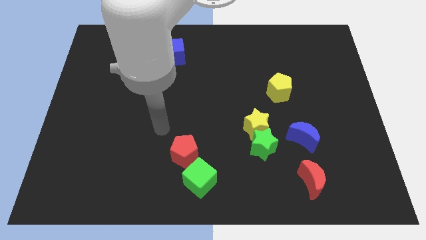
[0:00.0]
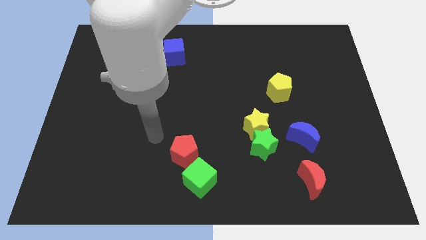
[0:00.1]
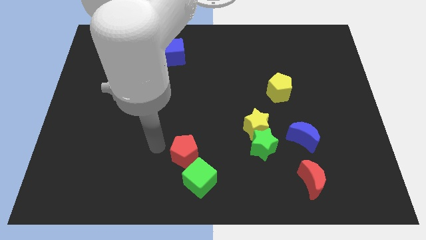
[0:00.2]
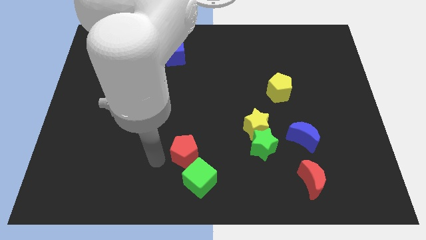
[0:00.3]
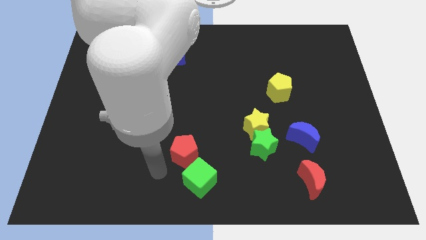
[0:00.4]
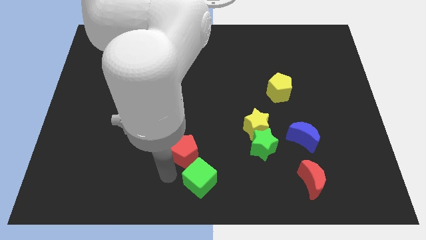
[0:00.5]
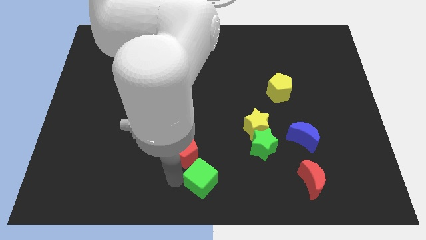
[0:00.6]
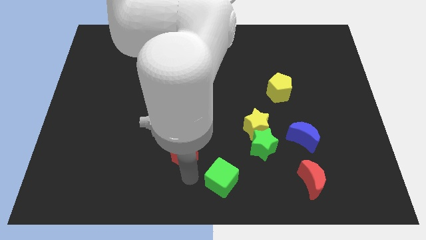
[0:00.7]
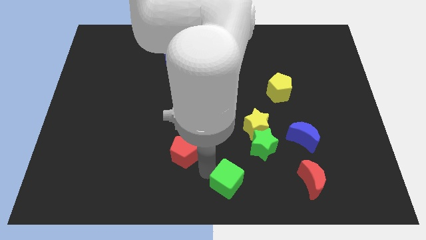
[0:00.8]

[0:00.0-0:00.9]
pull the red pentagon apart from the green cube

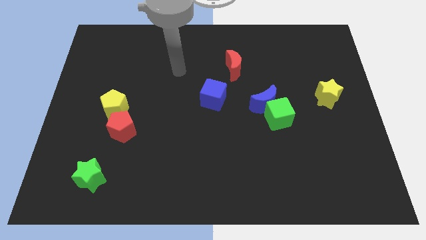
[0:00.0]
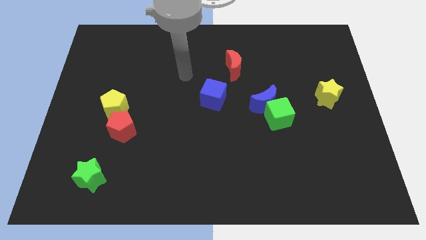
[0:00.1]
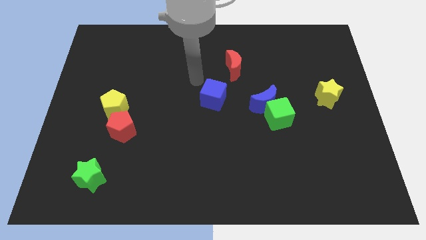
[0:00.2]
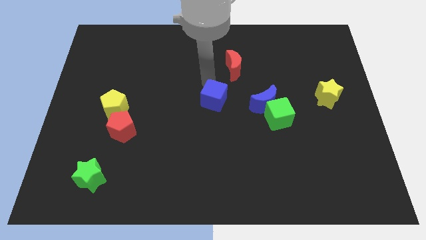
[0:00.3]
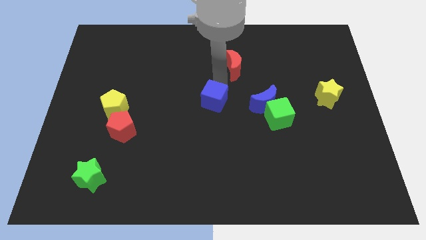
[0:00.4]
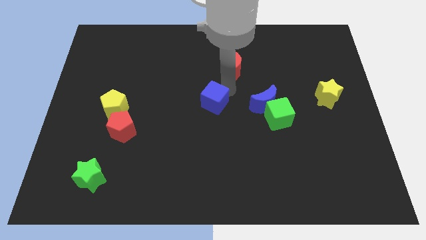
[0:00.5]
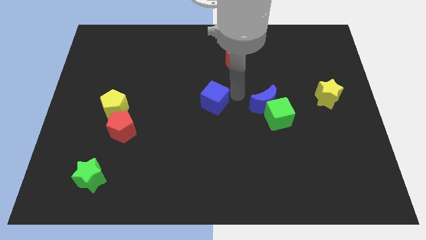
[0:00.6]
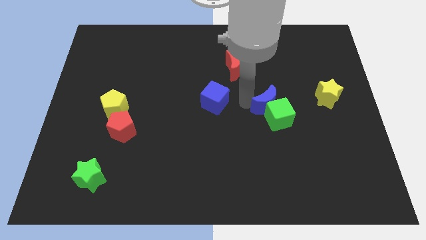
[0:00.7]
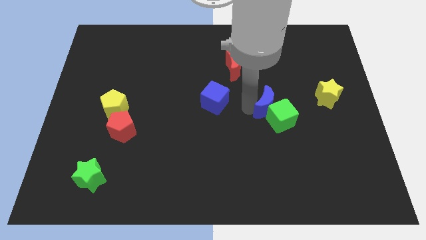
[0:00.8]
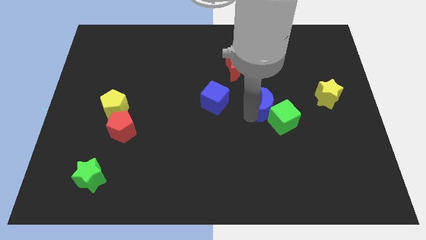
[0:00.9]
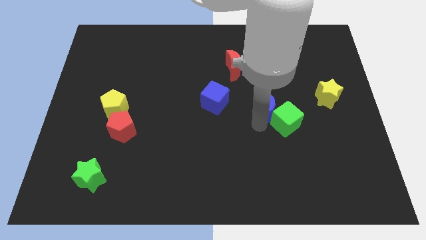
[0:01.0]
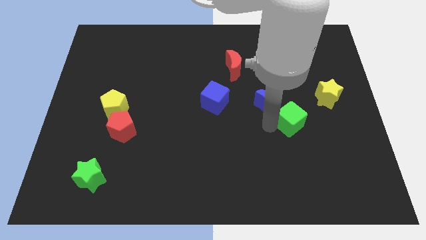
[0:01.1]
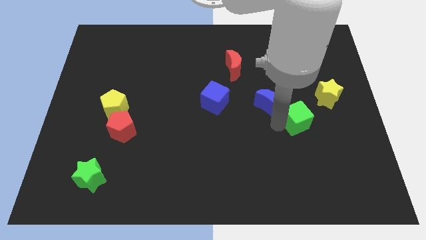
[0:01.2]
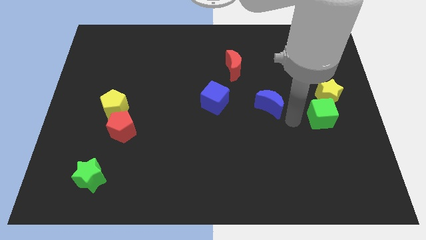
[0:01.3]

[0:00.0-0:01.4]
pull the blue moon apart from the green cube

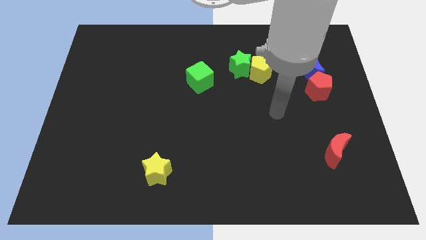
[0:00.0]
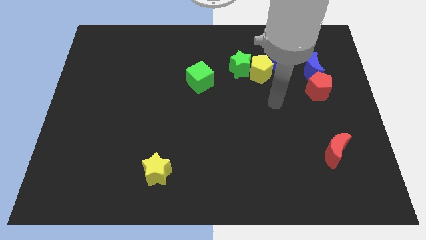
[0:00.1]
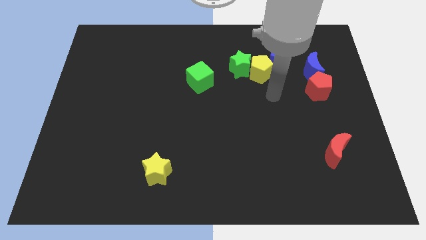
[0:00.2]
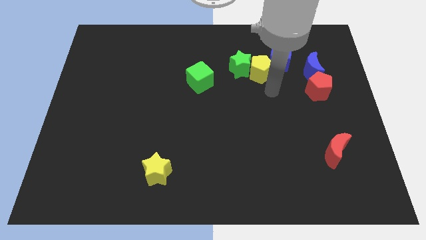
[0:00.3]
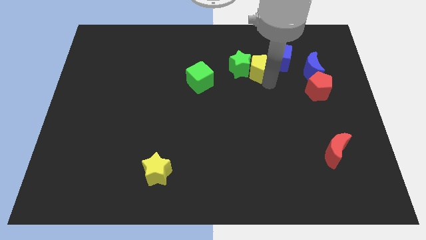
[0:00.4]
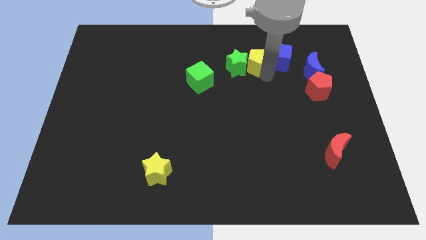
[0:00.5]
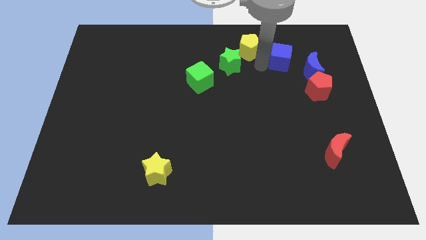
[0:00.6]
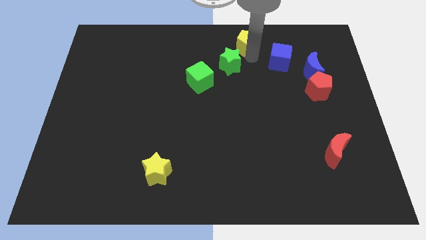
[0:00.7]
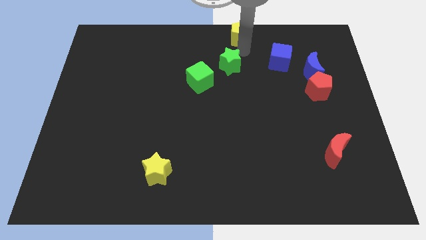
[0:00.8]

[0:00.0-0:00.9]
pull the green star apart from the yellow pentagon

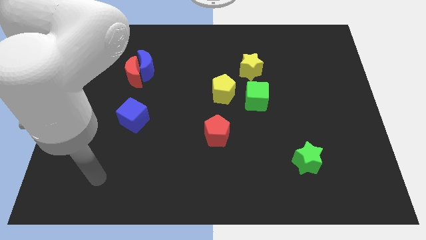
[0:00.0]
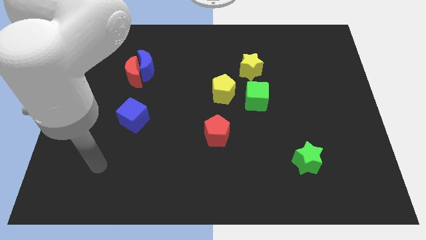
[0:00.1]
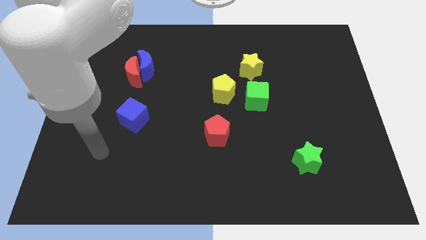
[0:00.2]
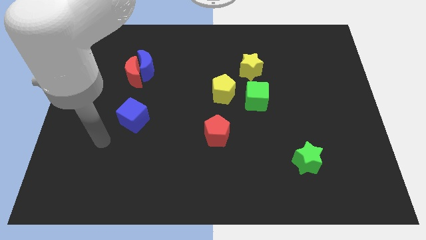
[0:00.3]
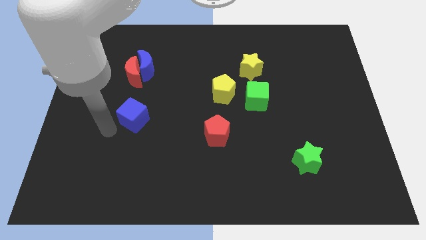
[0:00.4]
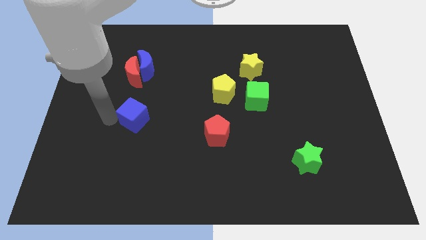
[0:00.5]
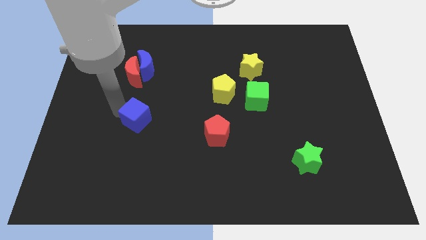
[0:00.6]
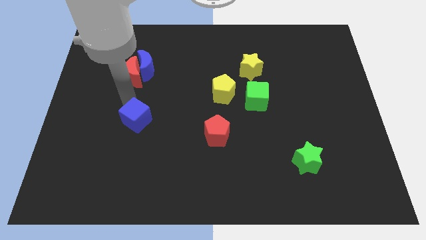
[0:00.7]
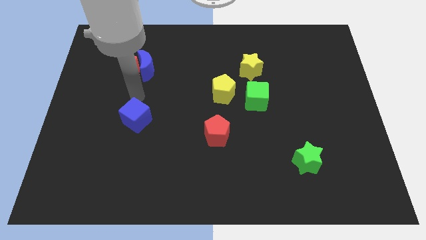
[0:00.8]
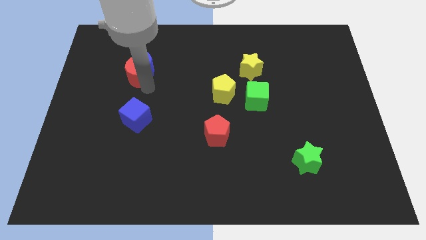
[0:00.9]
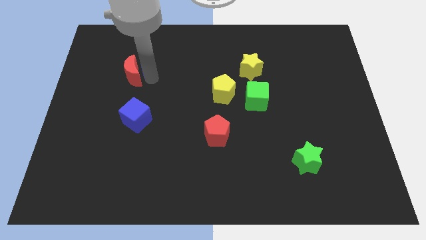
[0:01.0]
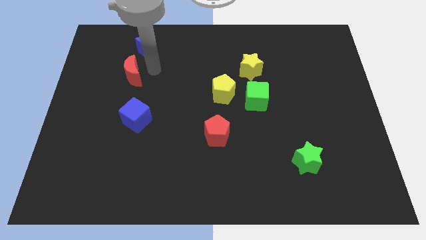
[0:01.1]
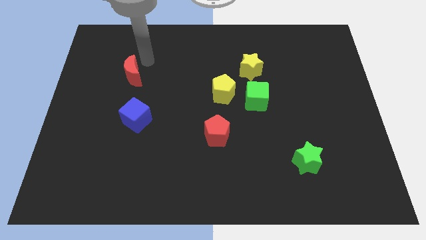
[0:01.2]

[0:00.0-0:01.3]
separate the red moon from the blue moon

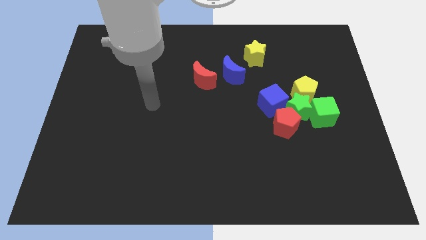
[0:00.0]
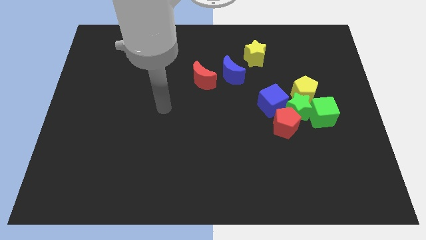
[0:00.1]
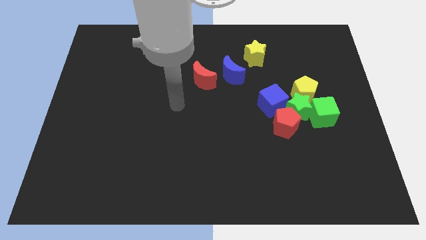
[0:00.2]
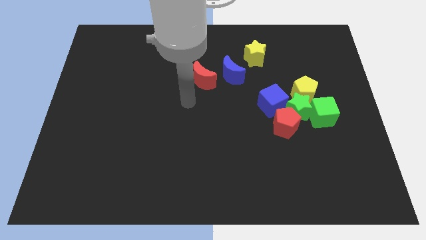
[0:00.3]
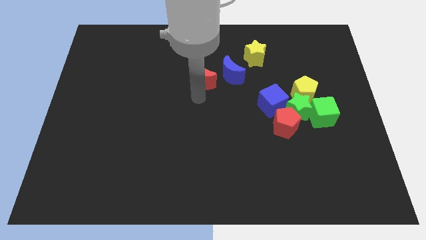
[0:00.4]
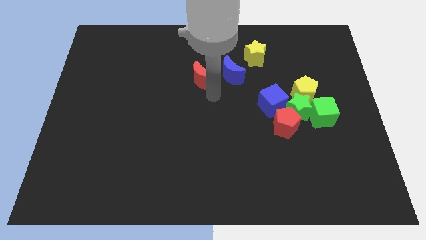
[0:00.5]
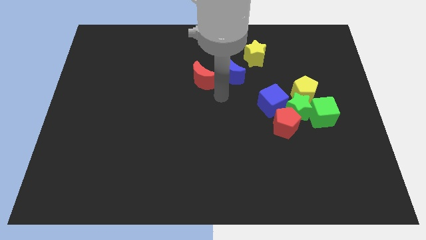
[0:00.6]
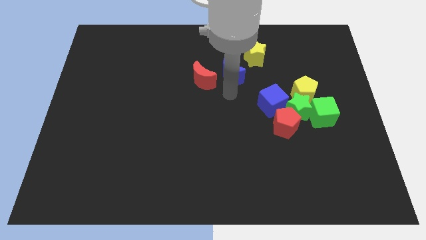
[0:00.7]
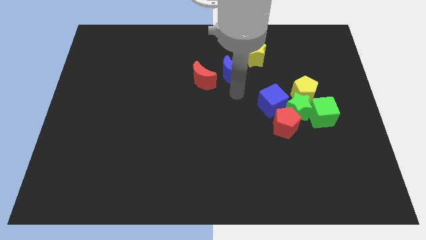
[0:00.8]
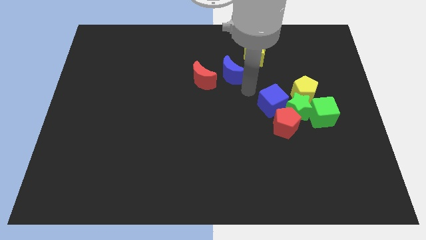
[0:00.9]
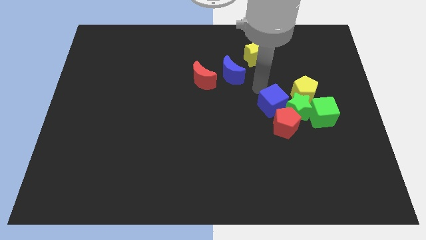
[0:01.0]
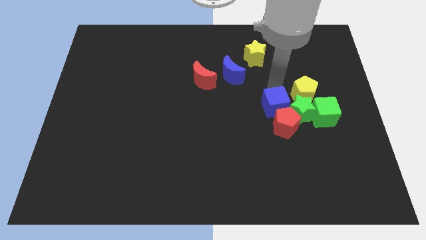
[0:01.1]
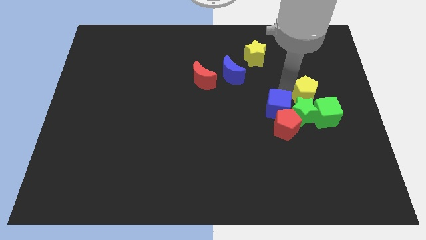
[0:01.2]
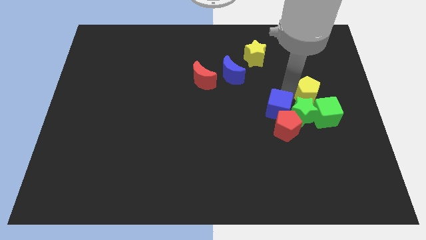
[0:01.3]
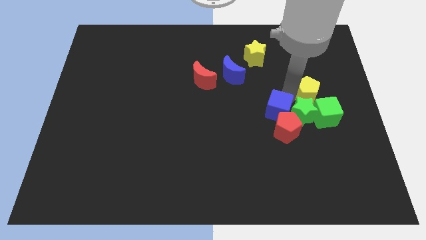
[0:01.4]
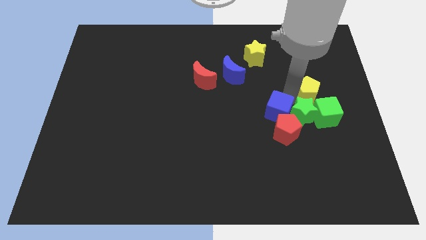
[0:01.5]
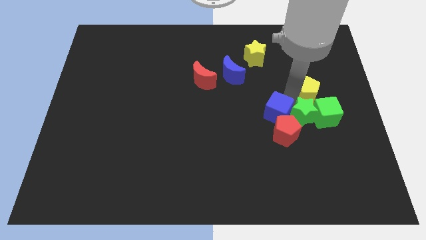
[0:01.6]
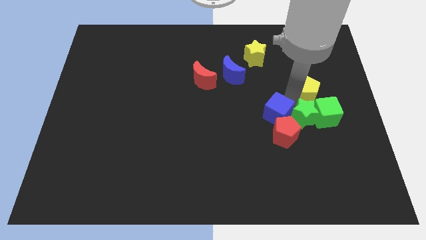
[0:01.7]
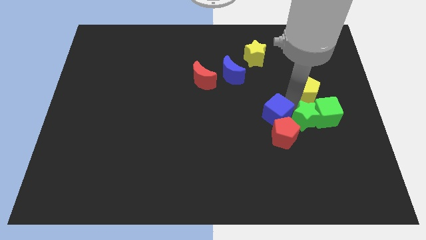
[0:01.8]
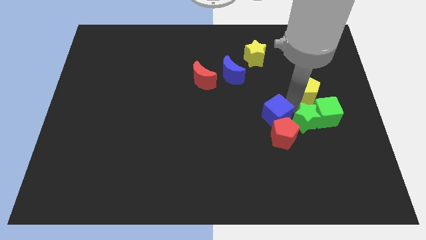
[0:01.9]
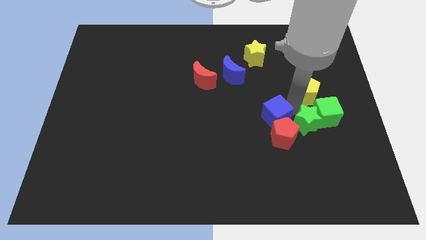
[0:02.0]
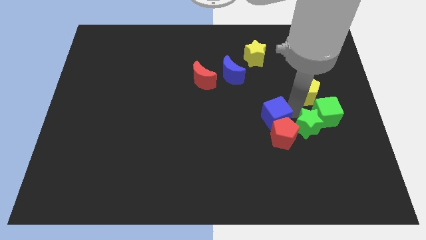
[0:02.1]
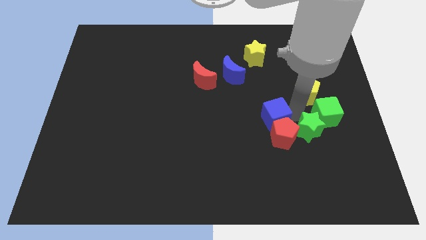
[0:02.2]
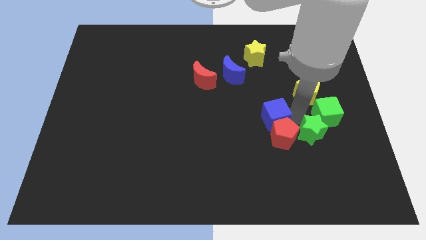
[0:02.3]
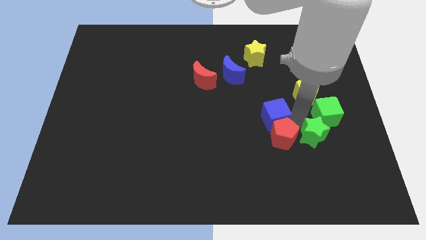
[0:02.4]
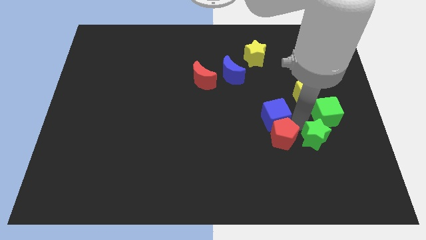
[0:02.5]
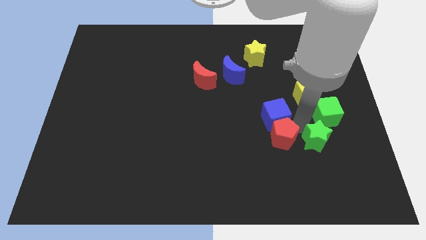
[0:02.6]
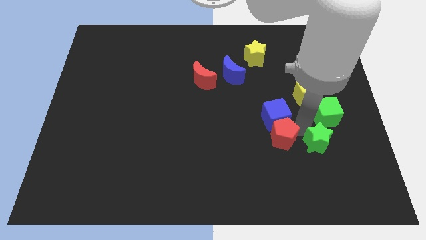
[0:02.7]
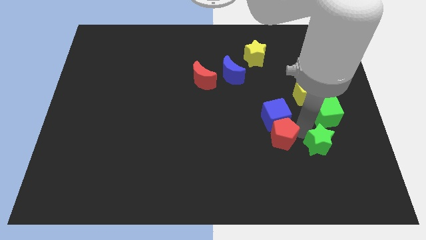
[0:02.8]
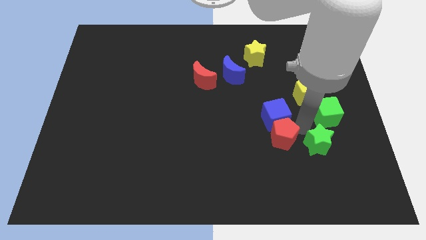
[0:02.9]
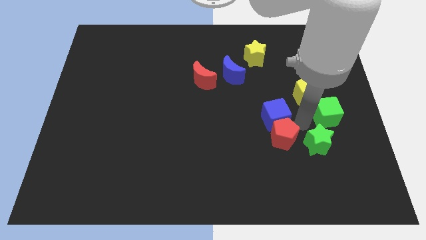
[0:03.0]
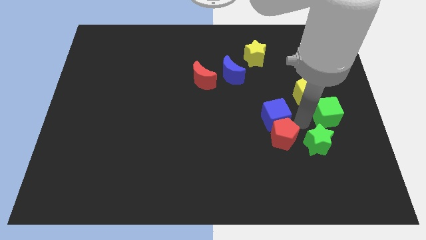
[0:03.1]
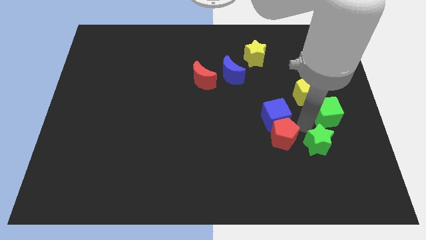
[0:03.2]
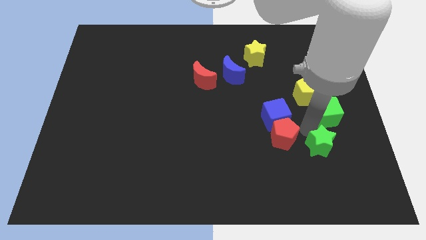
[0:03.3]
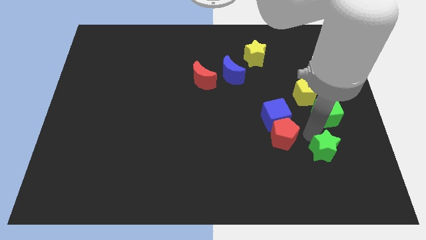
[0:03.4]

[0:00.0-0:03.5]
separate the green star from the group of blocks

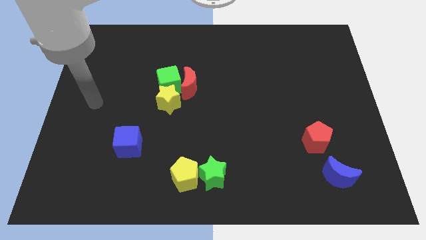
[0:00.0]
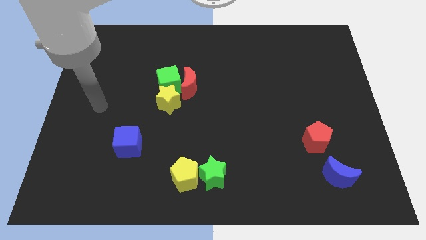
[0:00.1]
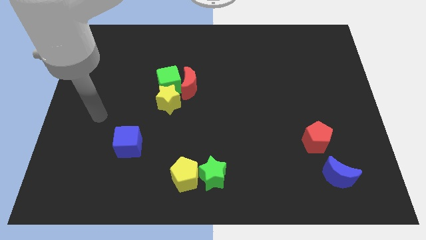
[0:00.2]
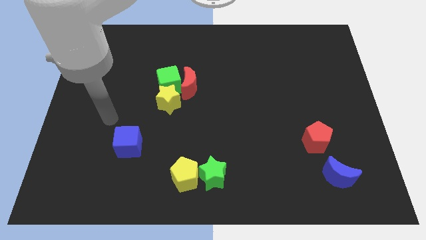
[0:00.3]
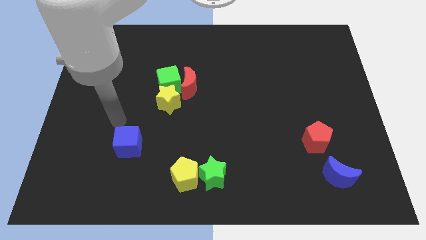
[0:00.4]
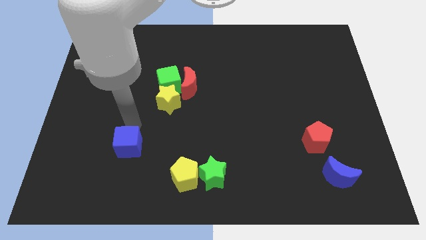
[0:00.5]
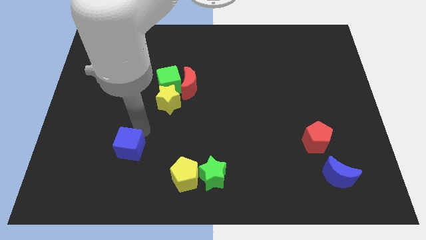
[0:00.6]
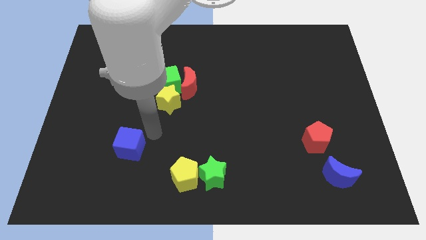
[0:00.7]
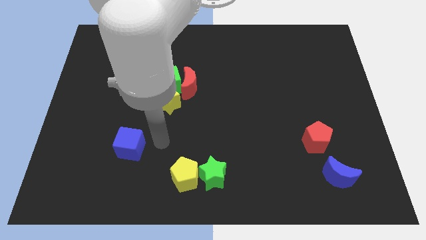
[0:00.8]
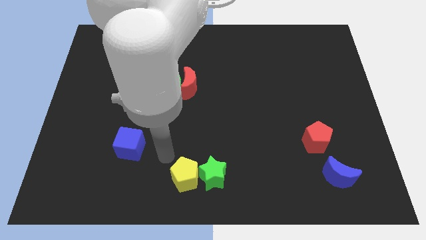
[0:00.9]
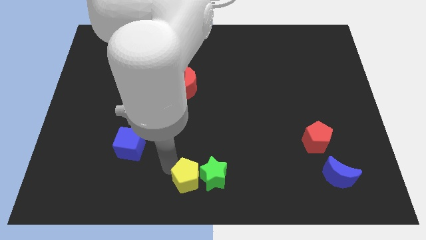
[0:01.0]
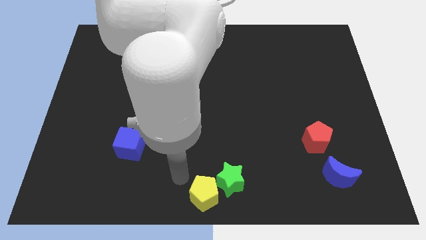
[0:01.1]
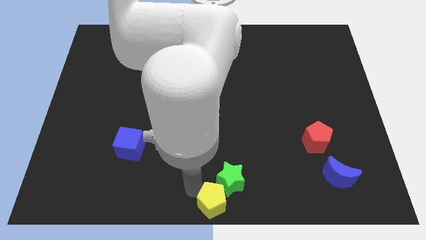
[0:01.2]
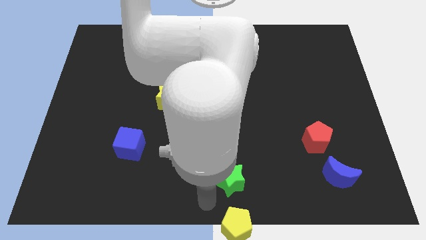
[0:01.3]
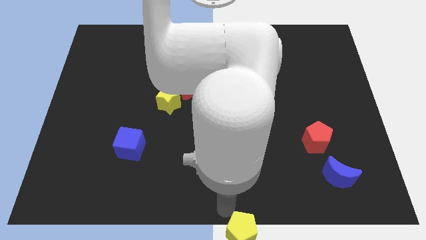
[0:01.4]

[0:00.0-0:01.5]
move the green star away from the yellow pentagon
